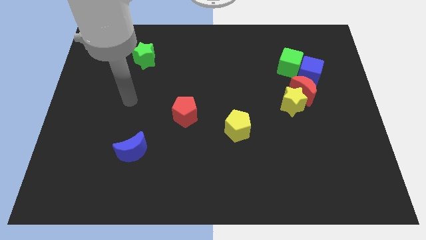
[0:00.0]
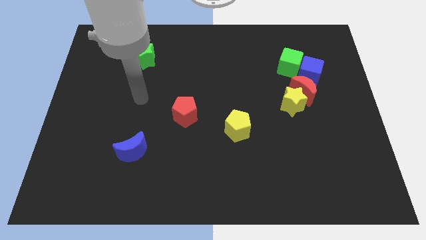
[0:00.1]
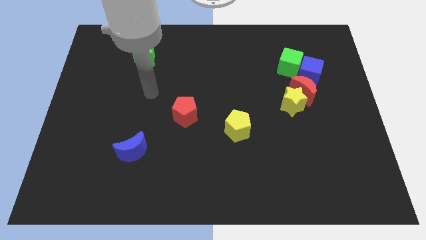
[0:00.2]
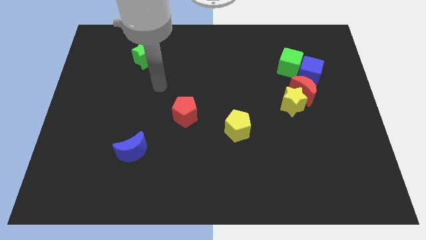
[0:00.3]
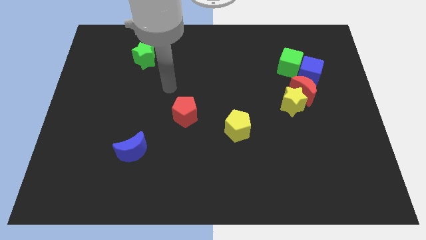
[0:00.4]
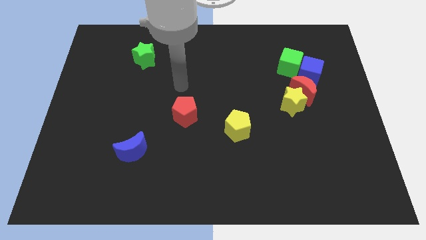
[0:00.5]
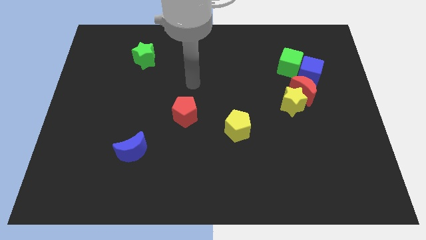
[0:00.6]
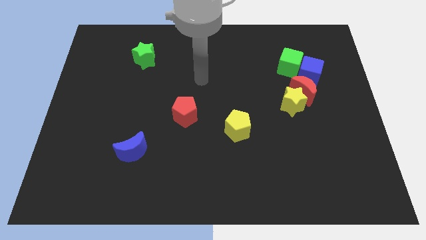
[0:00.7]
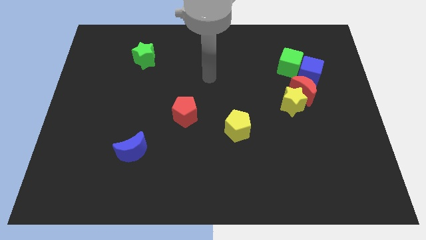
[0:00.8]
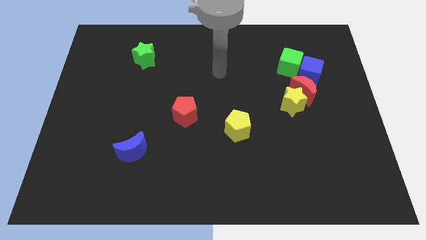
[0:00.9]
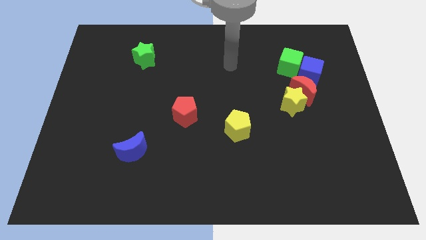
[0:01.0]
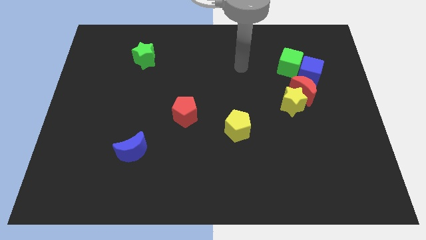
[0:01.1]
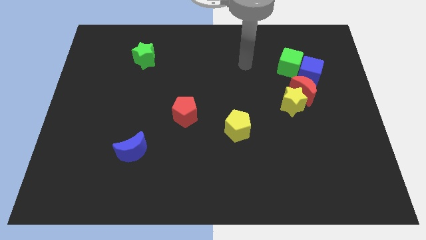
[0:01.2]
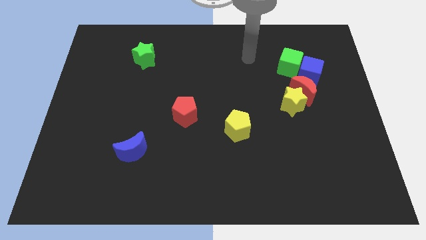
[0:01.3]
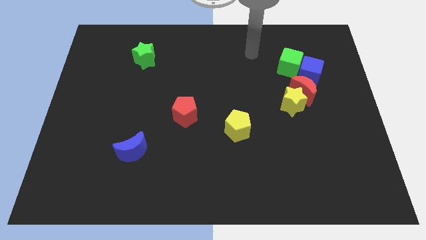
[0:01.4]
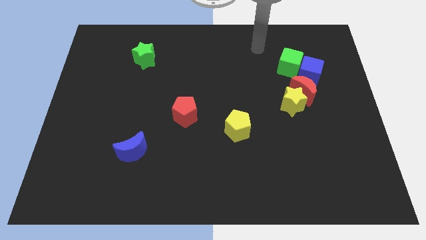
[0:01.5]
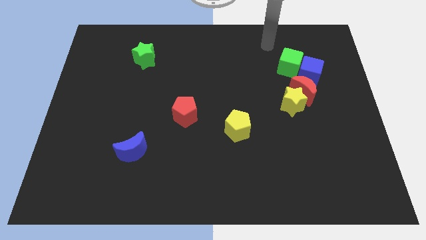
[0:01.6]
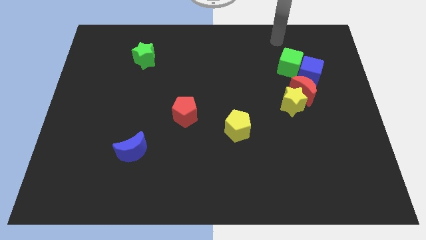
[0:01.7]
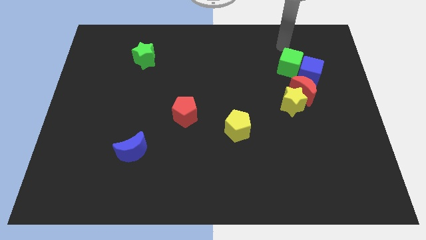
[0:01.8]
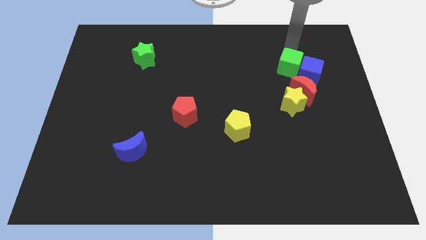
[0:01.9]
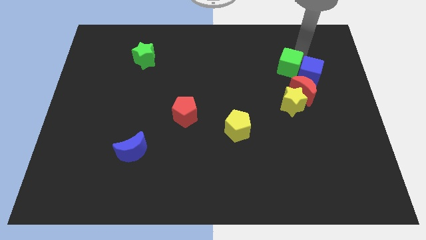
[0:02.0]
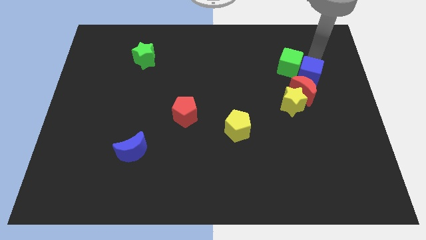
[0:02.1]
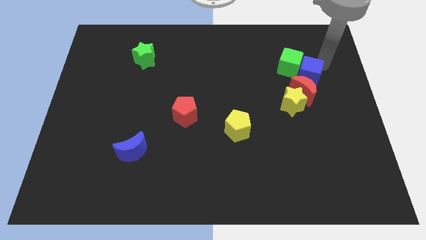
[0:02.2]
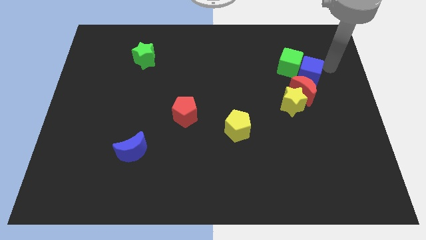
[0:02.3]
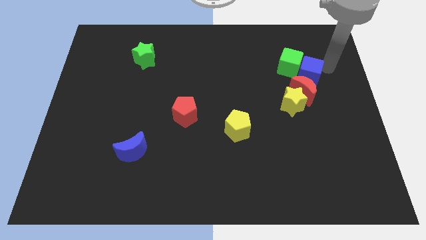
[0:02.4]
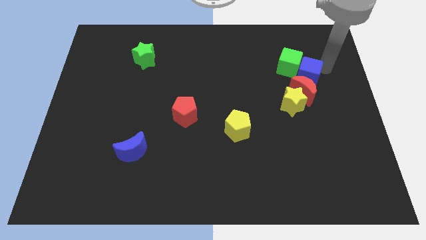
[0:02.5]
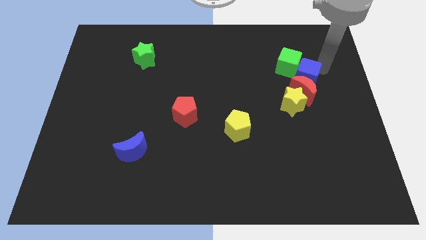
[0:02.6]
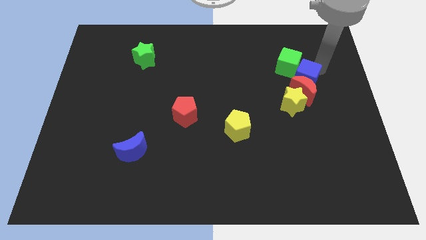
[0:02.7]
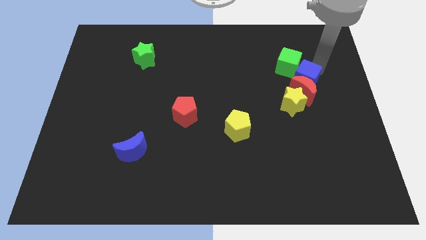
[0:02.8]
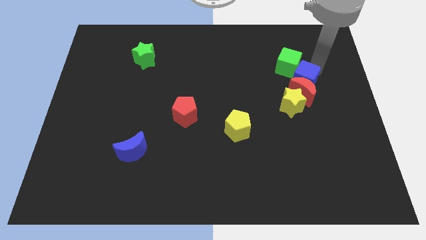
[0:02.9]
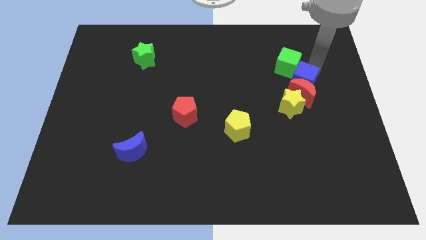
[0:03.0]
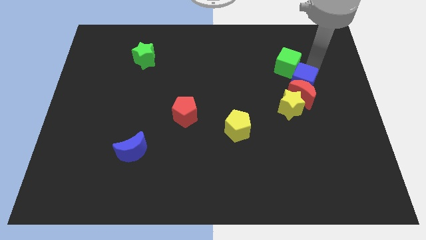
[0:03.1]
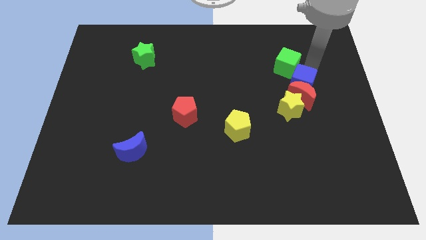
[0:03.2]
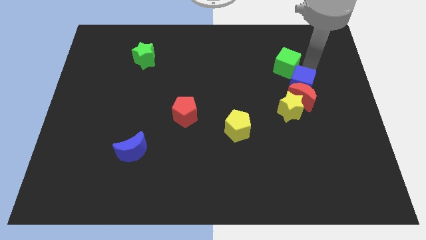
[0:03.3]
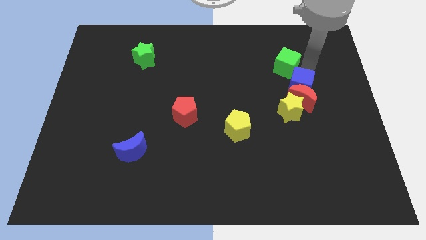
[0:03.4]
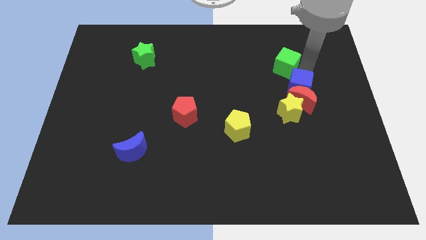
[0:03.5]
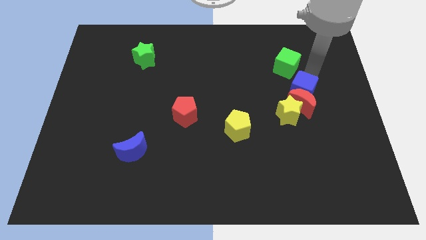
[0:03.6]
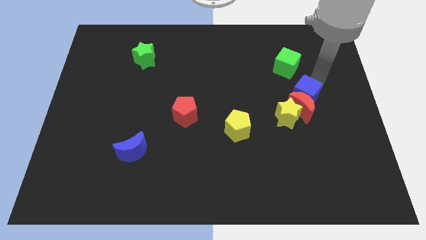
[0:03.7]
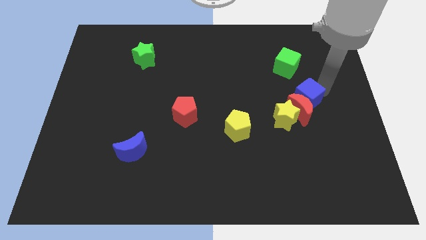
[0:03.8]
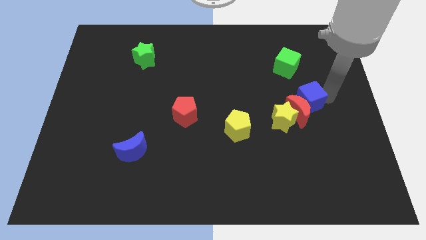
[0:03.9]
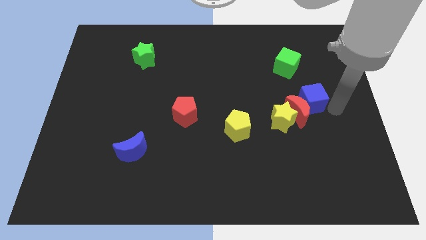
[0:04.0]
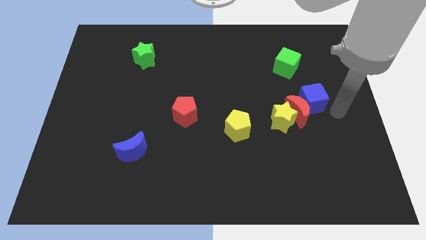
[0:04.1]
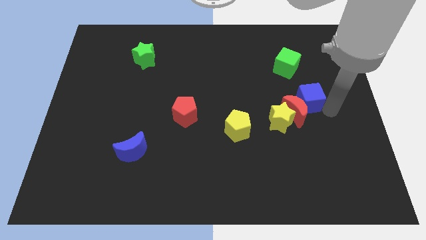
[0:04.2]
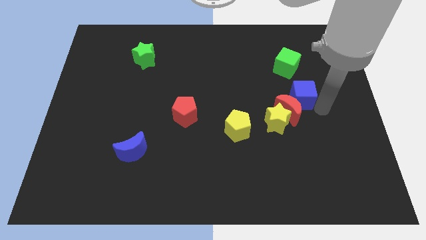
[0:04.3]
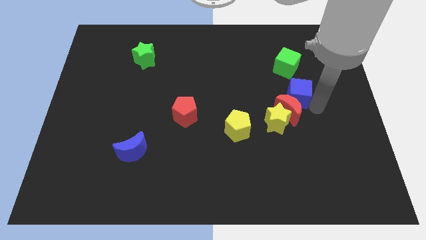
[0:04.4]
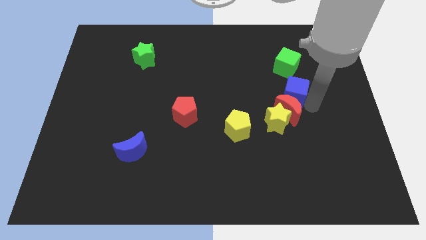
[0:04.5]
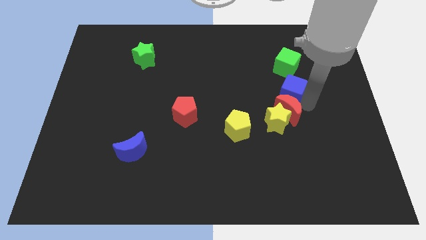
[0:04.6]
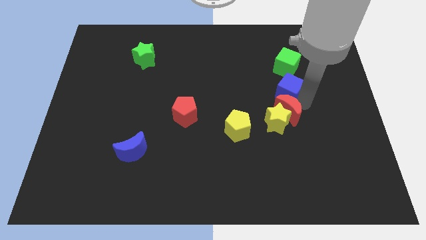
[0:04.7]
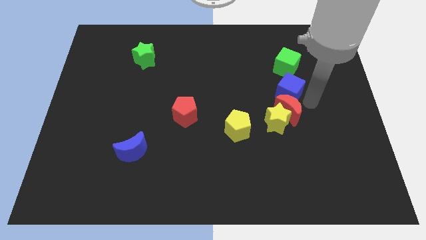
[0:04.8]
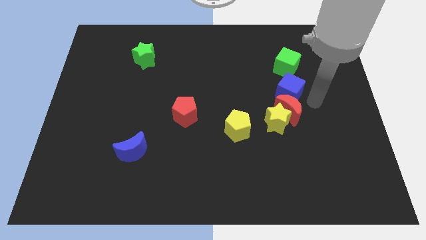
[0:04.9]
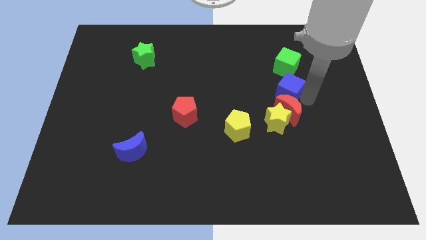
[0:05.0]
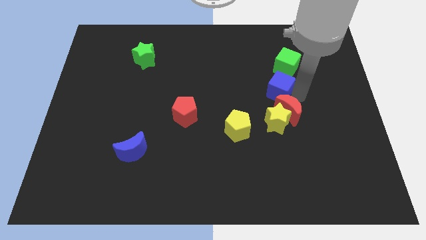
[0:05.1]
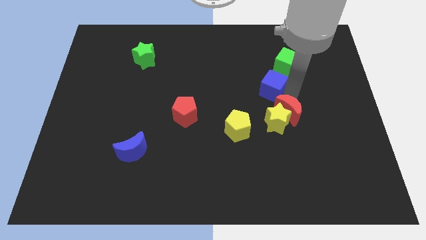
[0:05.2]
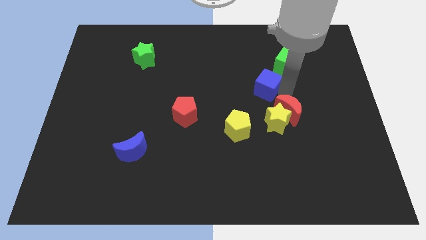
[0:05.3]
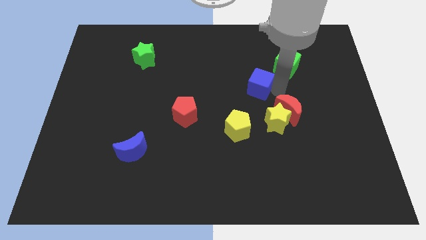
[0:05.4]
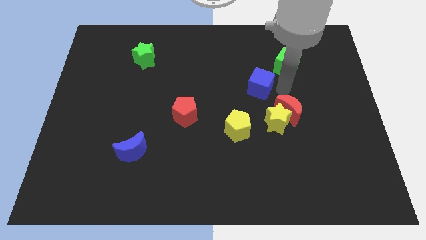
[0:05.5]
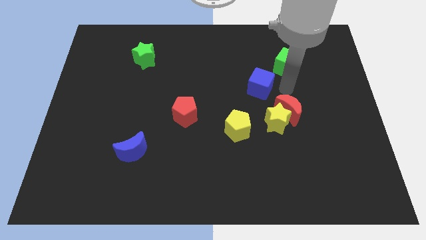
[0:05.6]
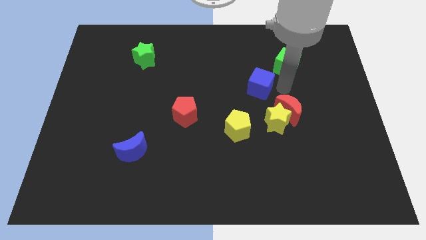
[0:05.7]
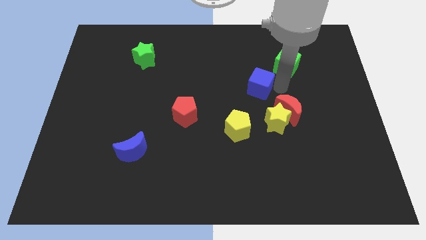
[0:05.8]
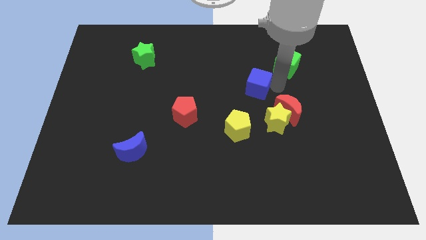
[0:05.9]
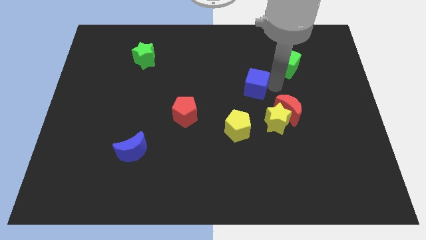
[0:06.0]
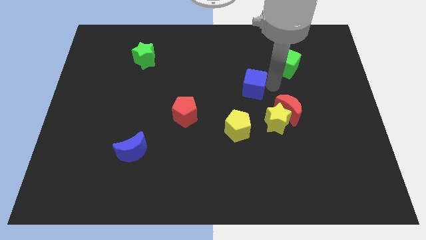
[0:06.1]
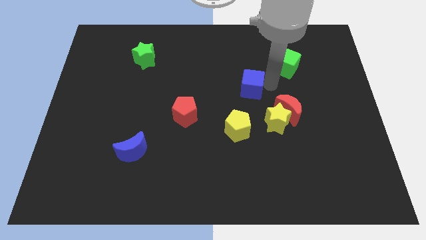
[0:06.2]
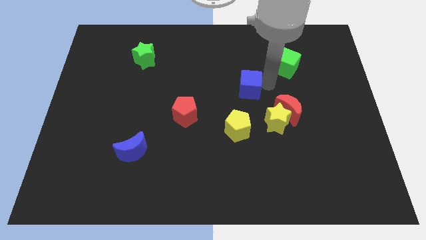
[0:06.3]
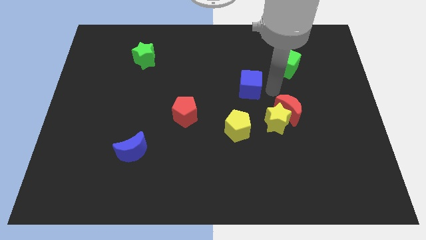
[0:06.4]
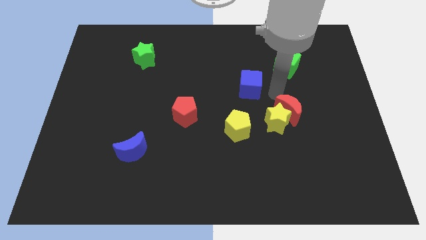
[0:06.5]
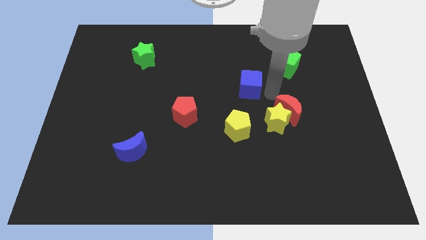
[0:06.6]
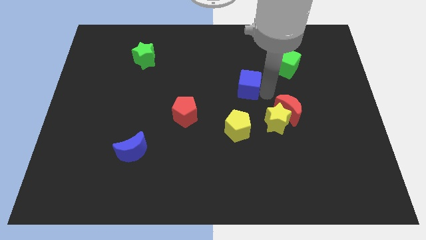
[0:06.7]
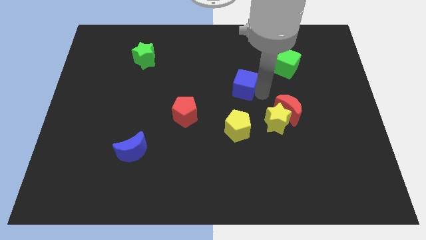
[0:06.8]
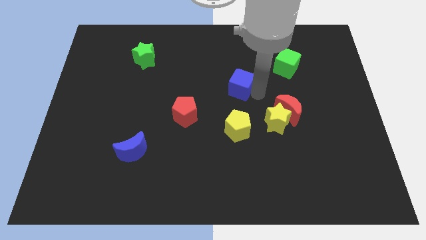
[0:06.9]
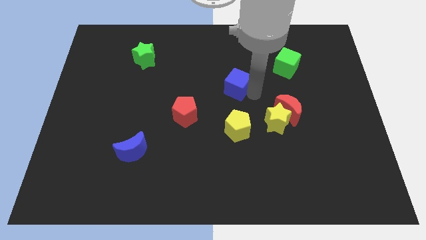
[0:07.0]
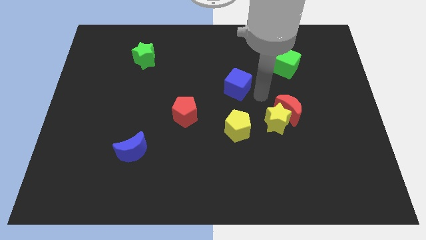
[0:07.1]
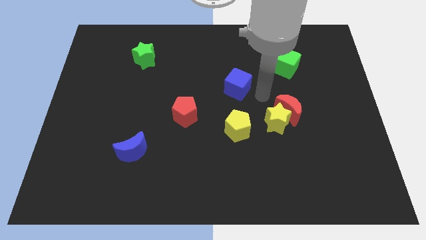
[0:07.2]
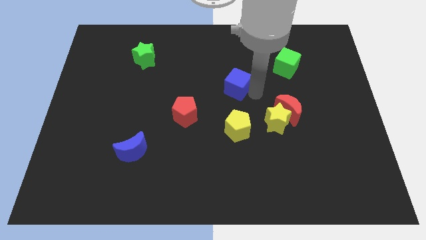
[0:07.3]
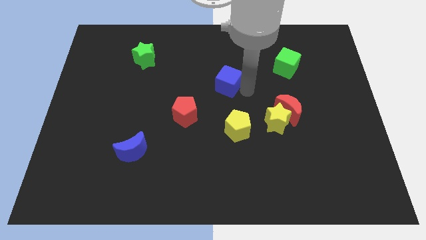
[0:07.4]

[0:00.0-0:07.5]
slide the blue cube left
